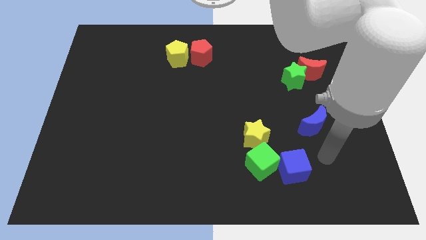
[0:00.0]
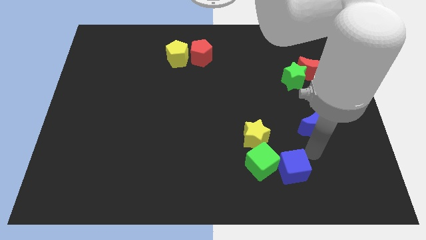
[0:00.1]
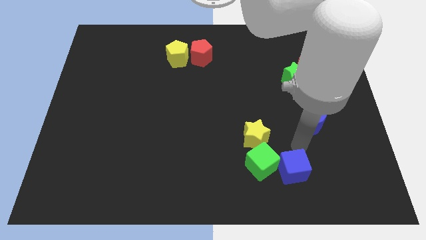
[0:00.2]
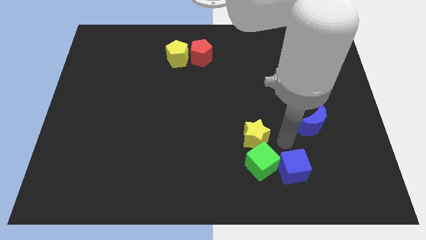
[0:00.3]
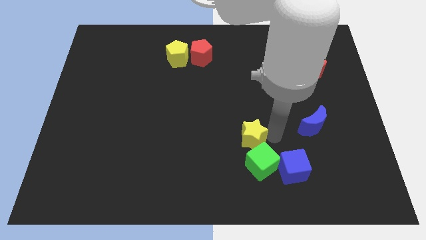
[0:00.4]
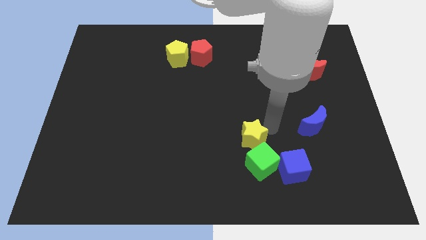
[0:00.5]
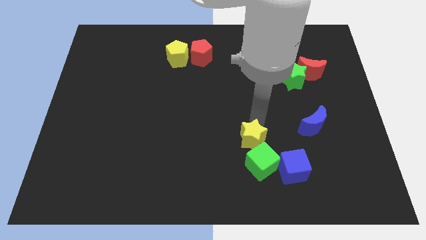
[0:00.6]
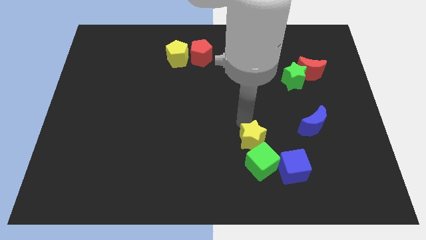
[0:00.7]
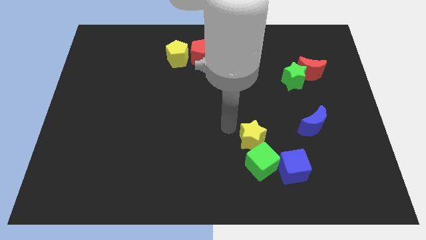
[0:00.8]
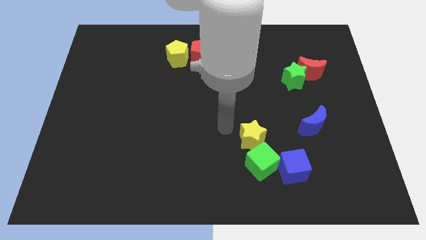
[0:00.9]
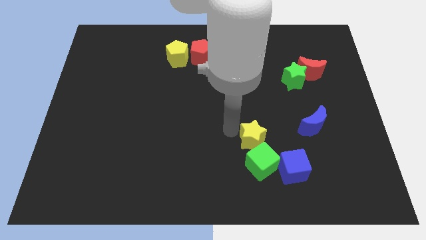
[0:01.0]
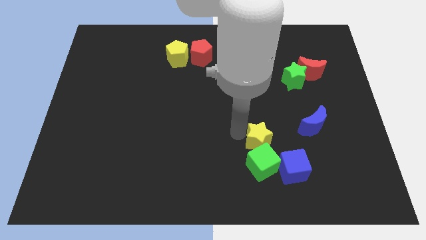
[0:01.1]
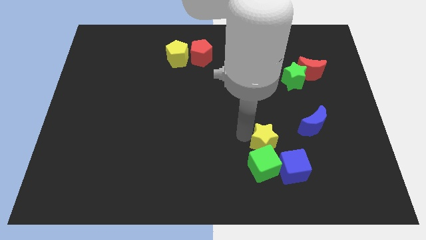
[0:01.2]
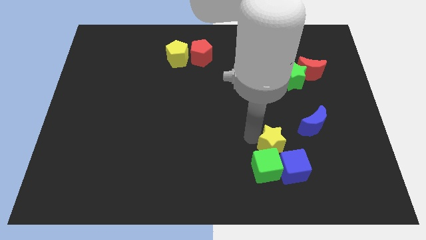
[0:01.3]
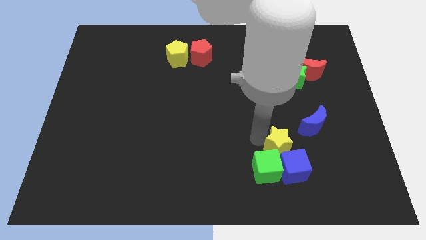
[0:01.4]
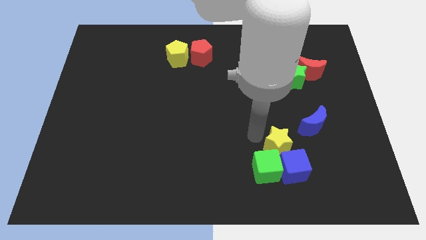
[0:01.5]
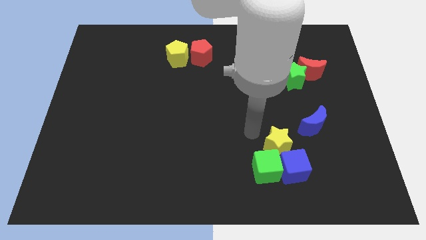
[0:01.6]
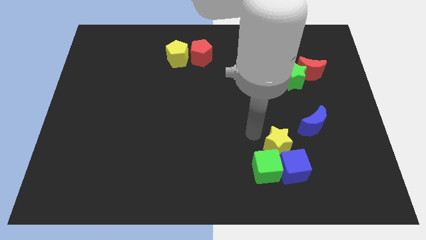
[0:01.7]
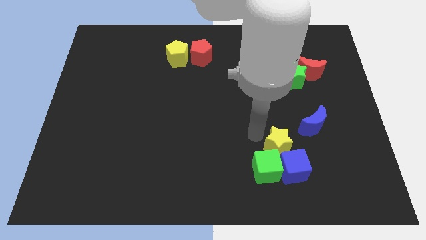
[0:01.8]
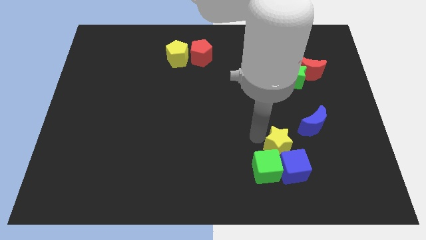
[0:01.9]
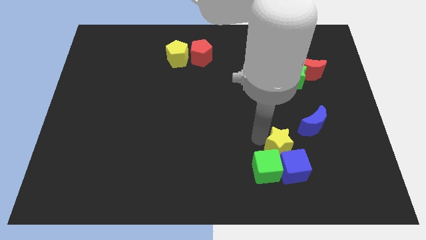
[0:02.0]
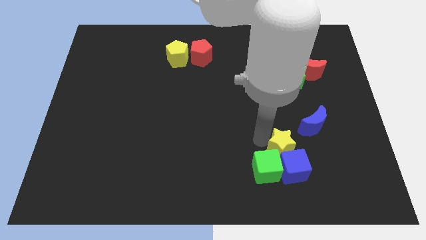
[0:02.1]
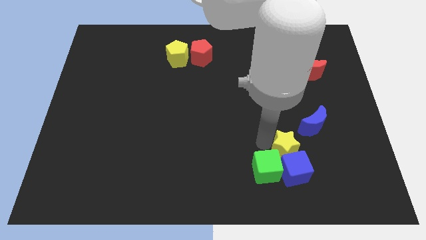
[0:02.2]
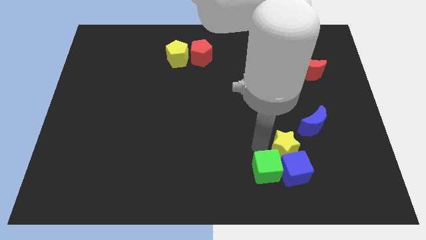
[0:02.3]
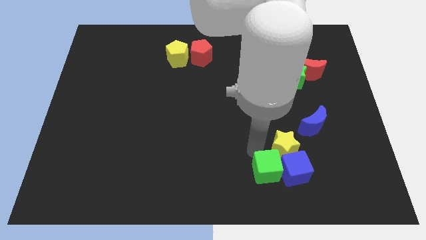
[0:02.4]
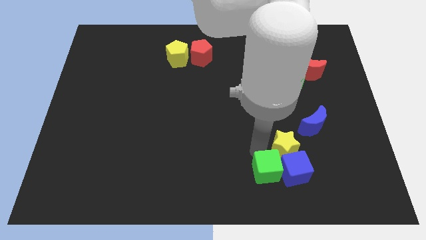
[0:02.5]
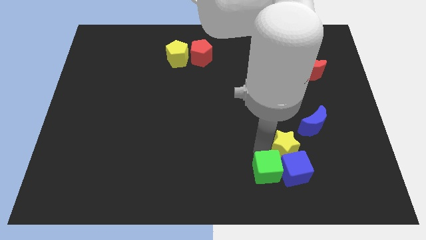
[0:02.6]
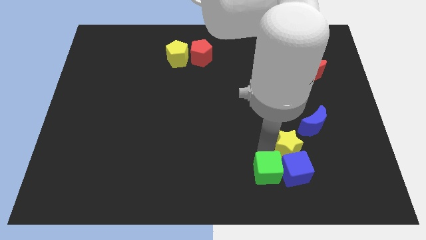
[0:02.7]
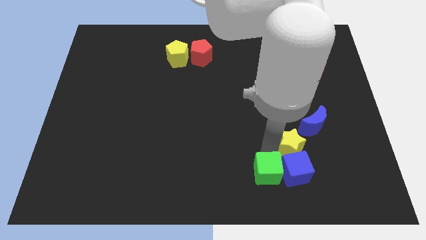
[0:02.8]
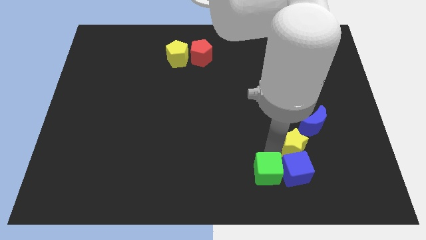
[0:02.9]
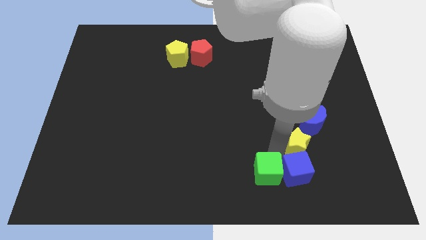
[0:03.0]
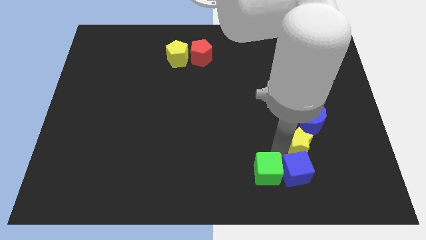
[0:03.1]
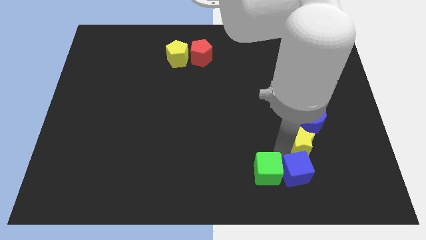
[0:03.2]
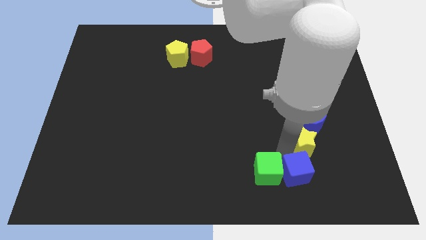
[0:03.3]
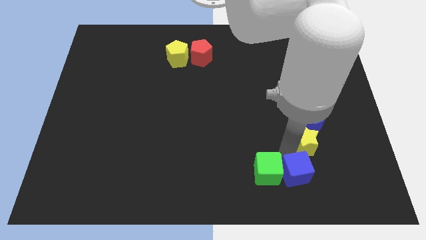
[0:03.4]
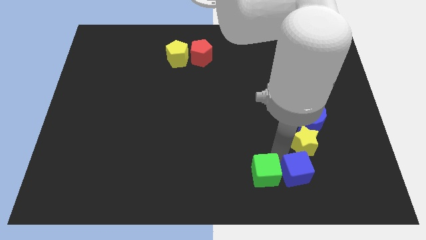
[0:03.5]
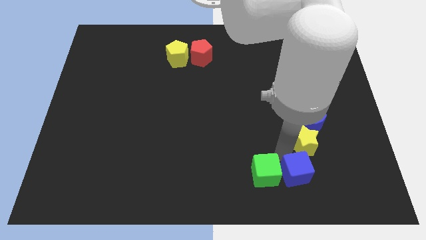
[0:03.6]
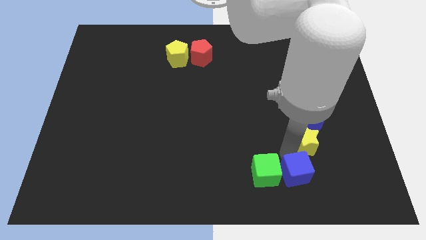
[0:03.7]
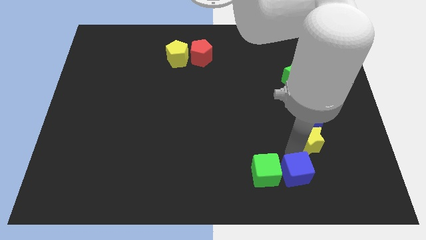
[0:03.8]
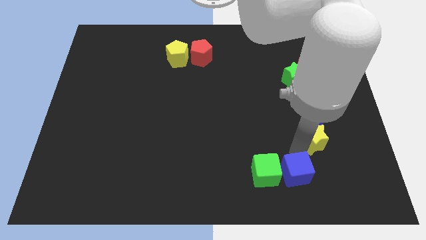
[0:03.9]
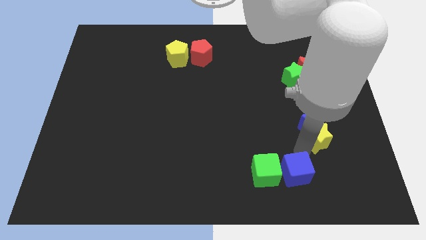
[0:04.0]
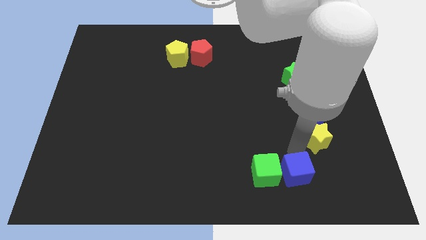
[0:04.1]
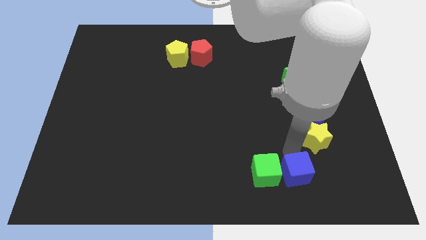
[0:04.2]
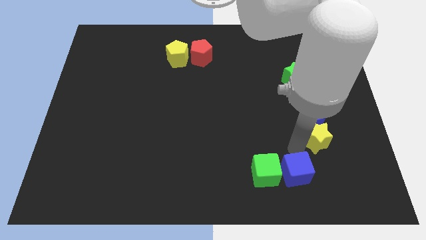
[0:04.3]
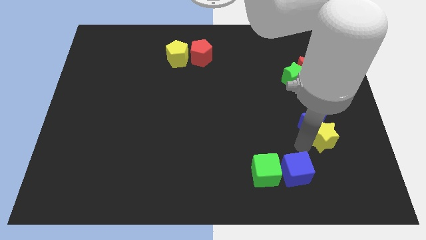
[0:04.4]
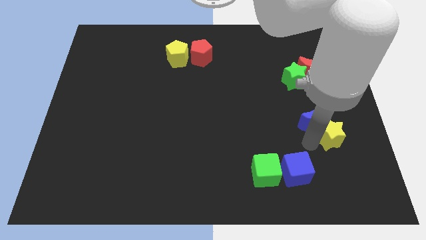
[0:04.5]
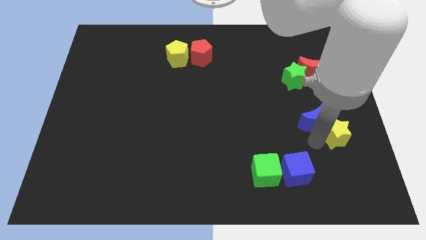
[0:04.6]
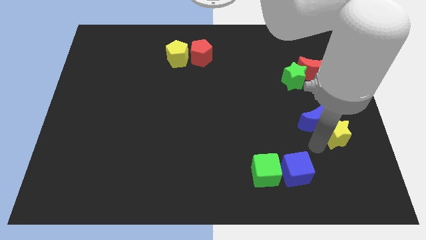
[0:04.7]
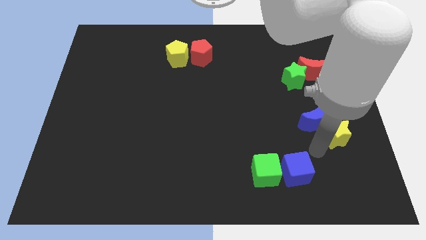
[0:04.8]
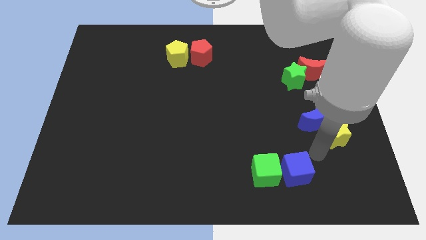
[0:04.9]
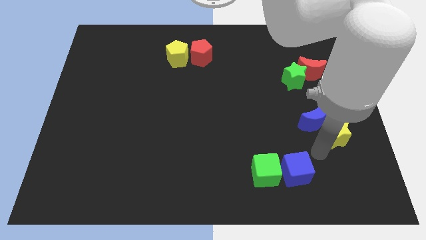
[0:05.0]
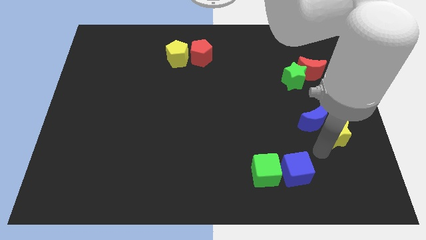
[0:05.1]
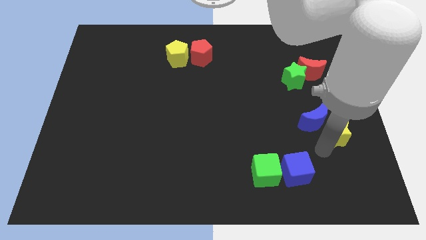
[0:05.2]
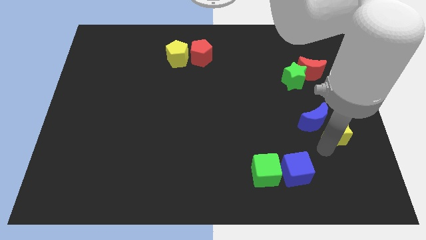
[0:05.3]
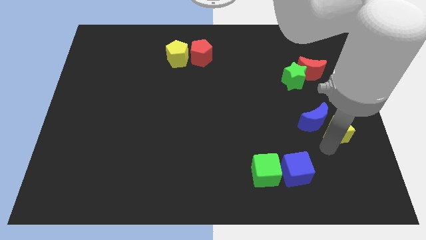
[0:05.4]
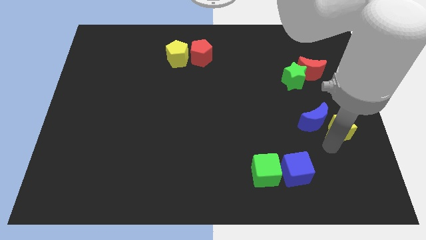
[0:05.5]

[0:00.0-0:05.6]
push the yellow star to the right side

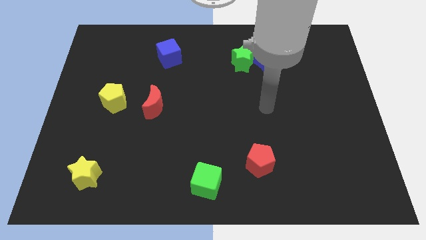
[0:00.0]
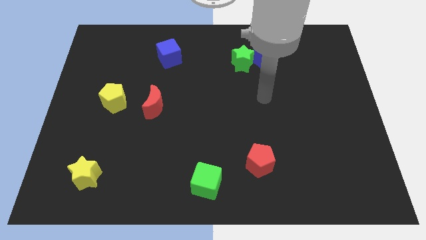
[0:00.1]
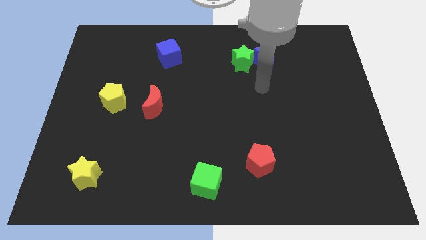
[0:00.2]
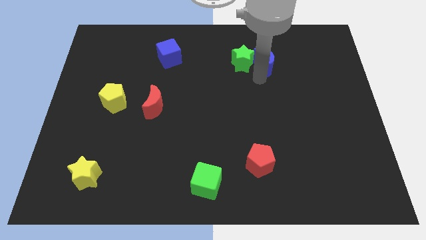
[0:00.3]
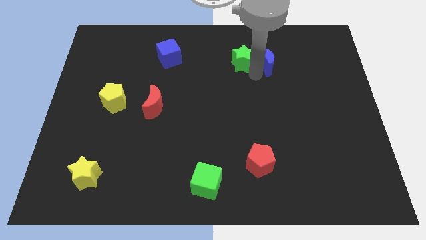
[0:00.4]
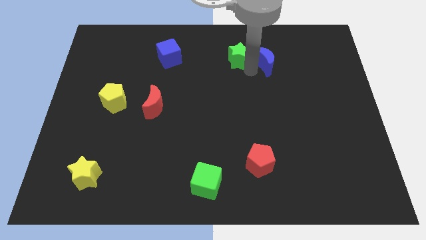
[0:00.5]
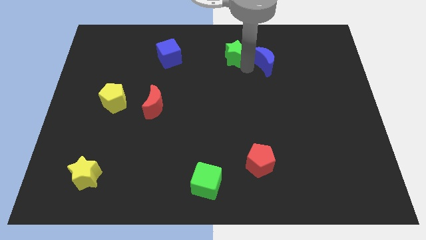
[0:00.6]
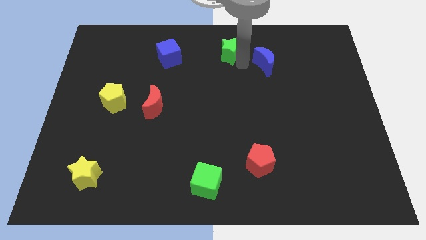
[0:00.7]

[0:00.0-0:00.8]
push the green star to the top side

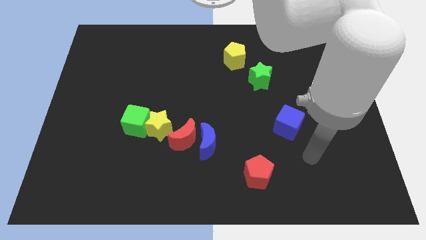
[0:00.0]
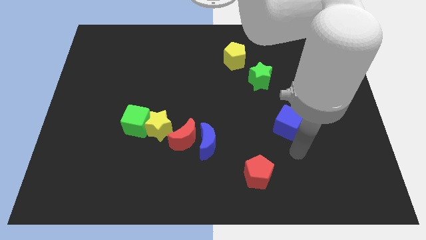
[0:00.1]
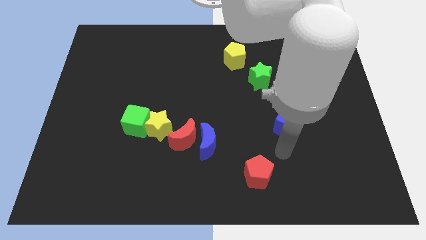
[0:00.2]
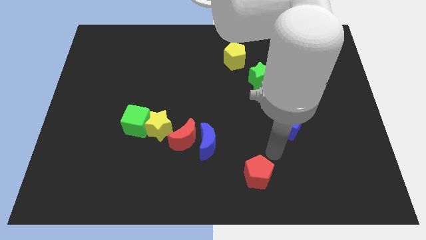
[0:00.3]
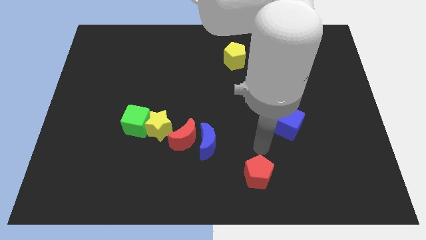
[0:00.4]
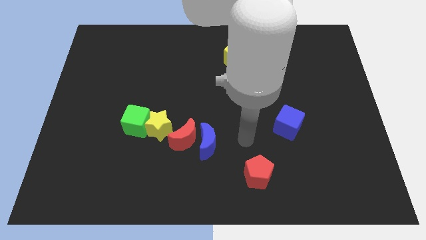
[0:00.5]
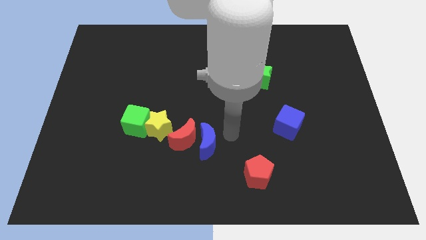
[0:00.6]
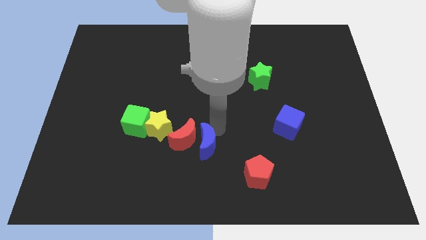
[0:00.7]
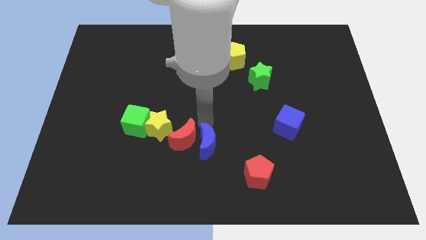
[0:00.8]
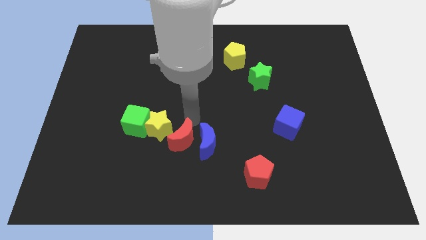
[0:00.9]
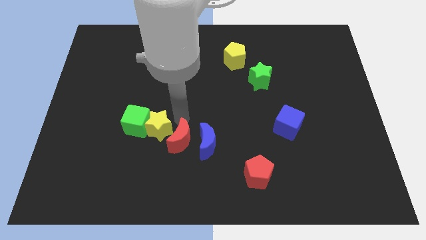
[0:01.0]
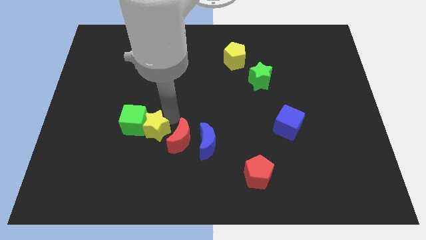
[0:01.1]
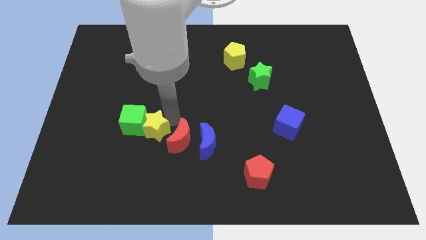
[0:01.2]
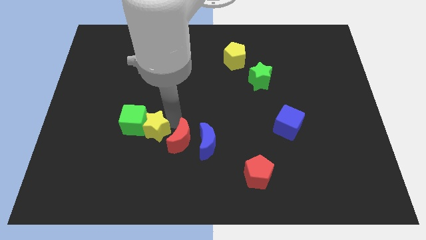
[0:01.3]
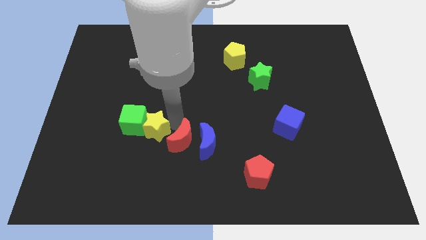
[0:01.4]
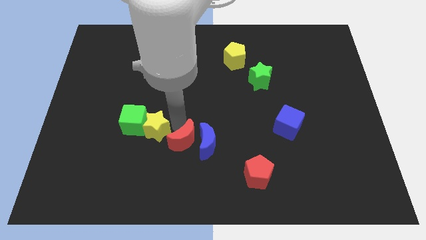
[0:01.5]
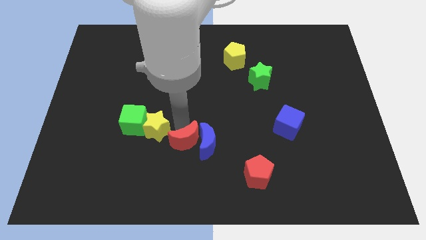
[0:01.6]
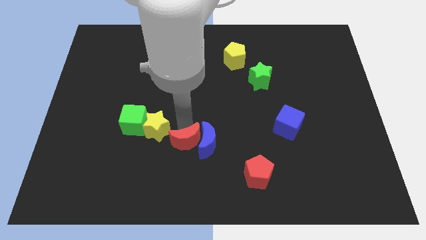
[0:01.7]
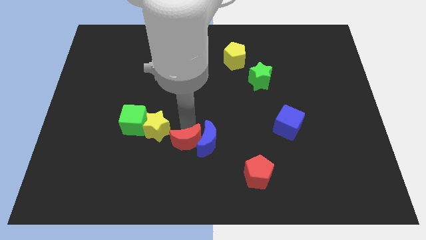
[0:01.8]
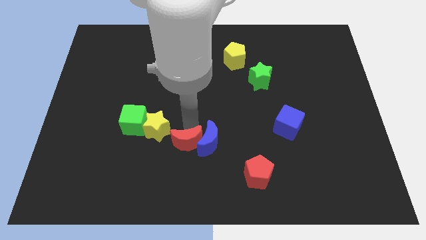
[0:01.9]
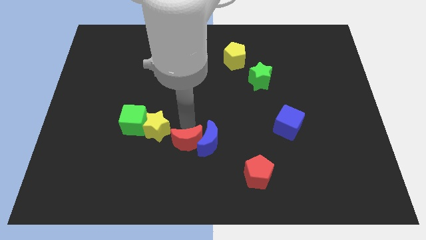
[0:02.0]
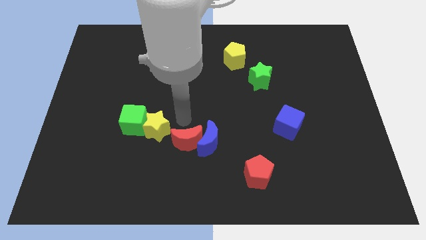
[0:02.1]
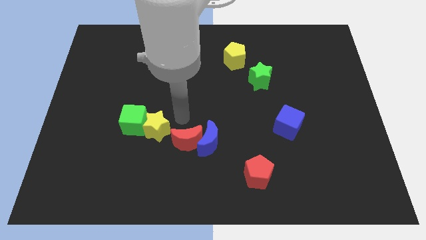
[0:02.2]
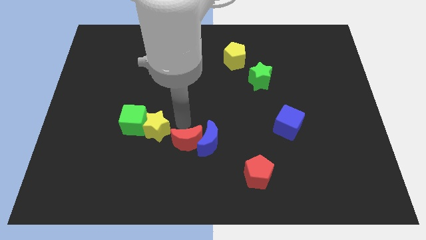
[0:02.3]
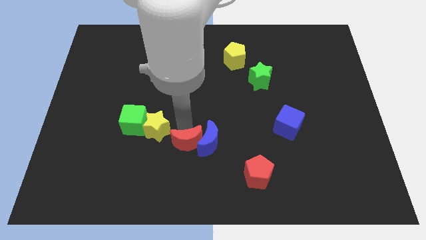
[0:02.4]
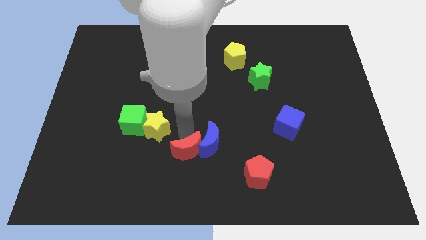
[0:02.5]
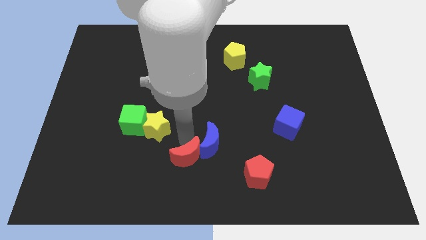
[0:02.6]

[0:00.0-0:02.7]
slide the red moon to the bottom side
